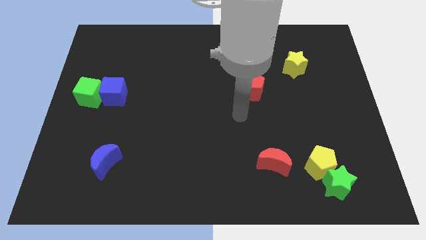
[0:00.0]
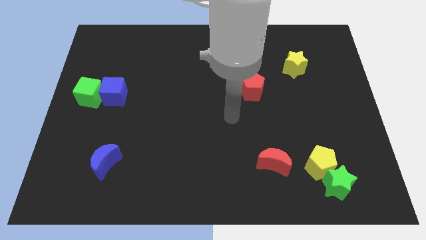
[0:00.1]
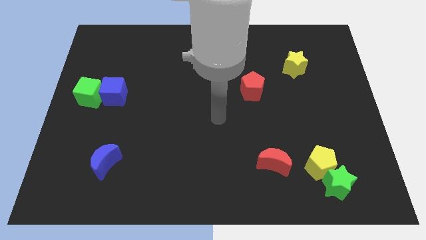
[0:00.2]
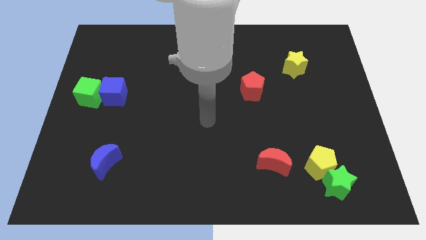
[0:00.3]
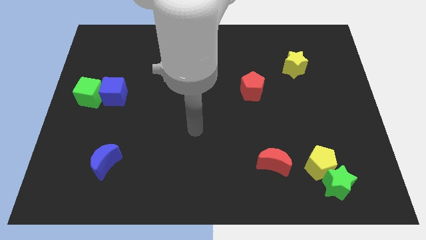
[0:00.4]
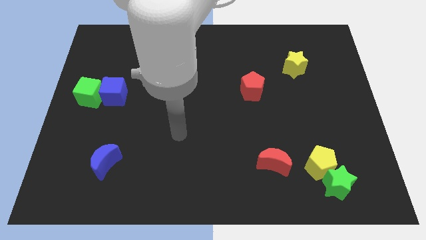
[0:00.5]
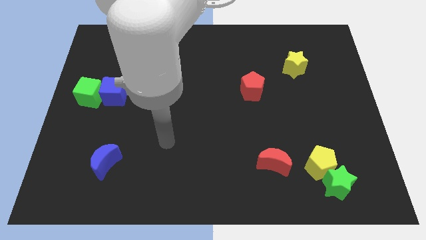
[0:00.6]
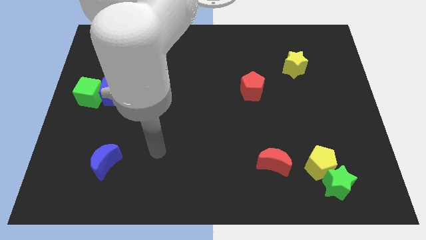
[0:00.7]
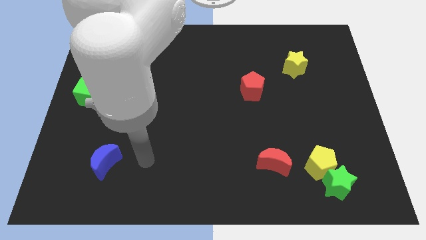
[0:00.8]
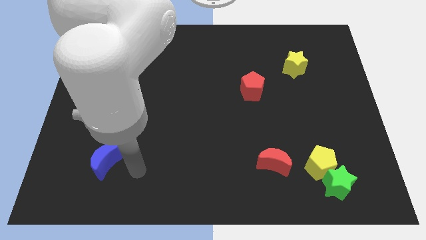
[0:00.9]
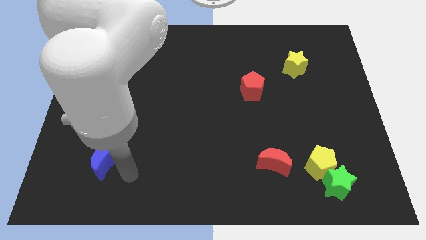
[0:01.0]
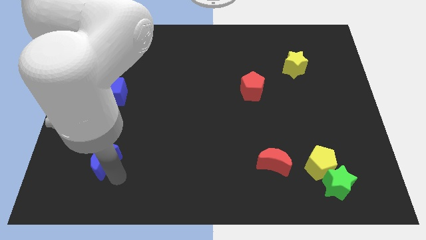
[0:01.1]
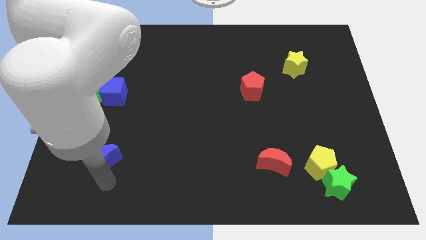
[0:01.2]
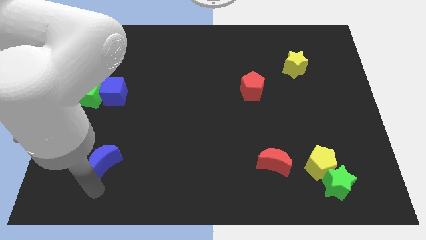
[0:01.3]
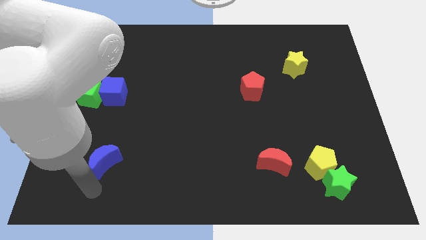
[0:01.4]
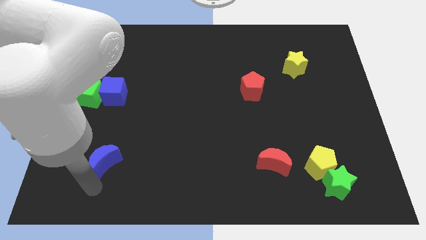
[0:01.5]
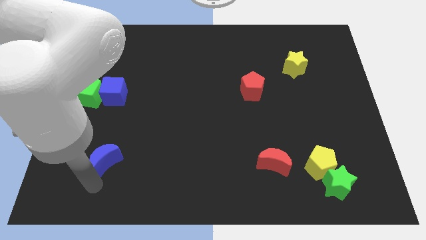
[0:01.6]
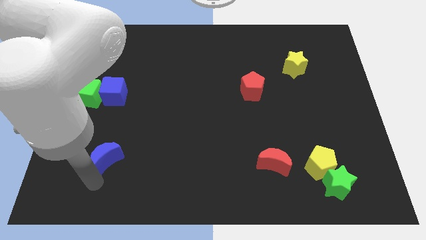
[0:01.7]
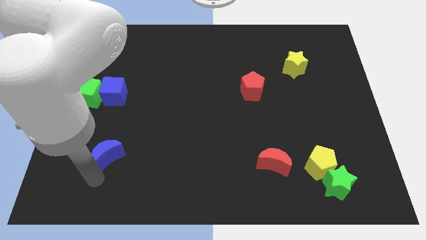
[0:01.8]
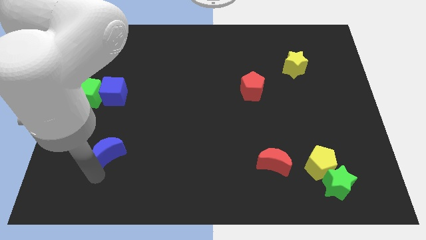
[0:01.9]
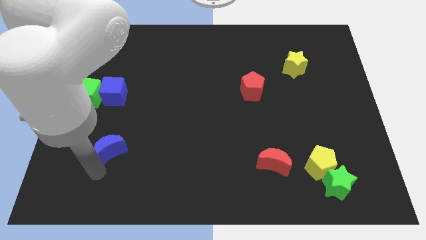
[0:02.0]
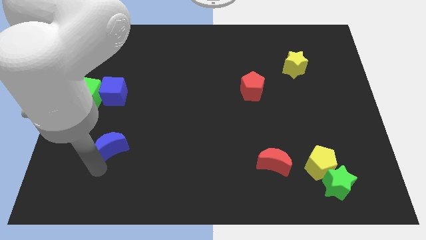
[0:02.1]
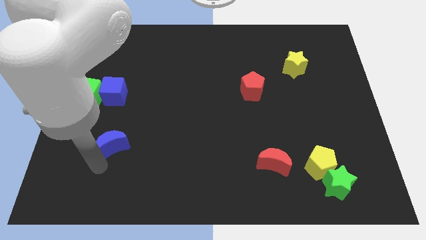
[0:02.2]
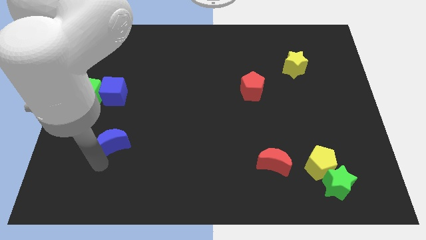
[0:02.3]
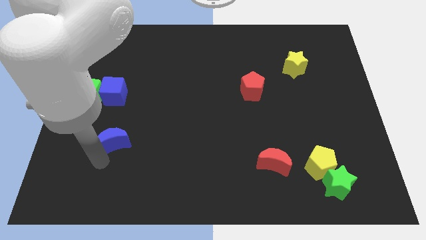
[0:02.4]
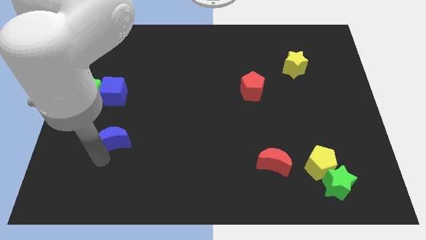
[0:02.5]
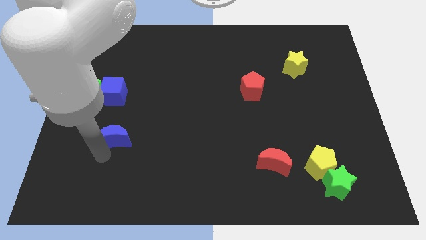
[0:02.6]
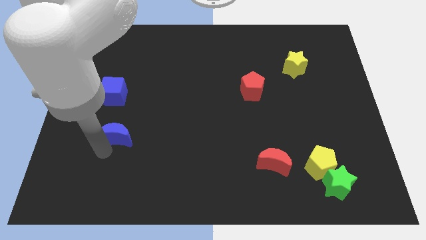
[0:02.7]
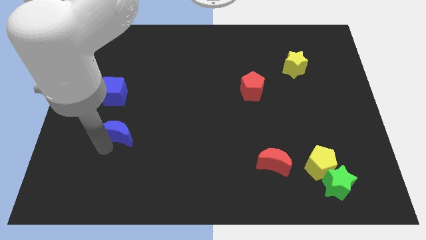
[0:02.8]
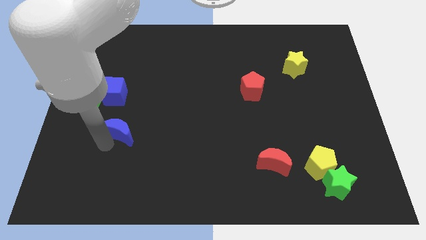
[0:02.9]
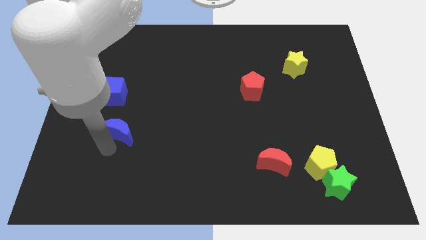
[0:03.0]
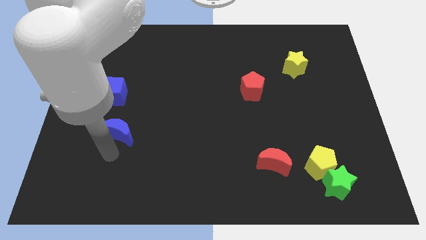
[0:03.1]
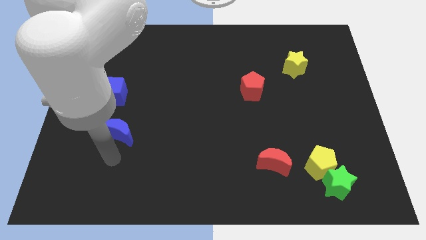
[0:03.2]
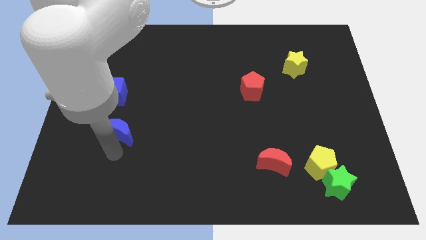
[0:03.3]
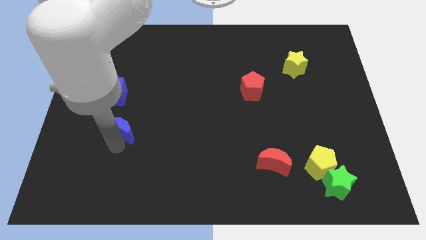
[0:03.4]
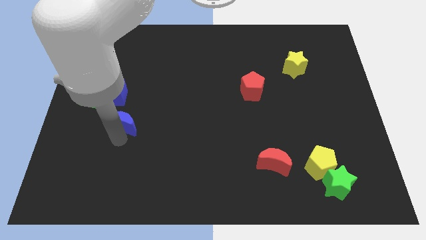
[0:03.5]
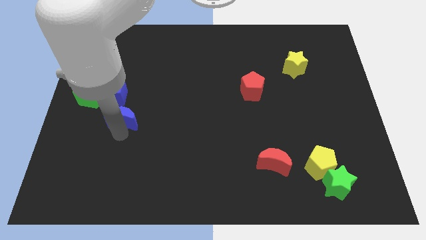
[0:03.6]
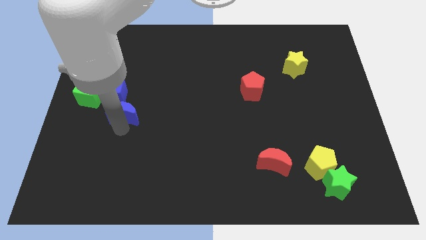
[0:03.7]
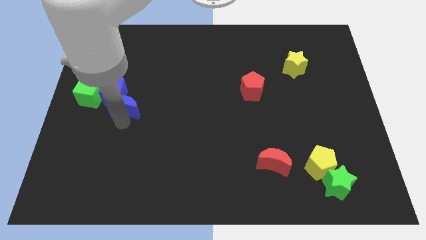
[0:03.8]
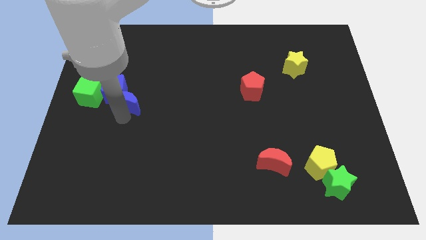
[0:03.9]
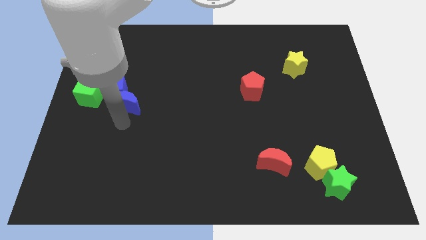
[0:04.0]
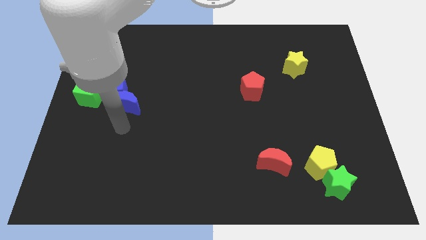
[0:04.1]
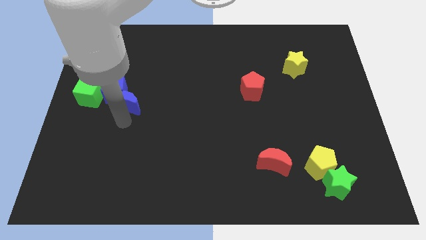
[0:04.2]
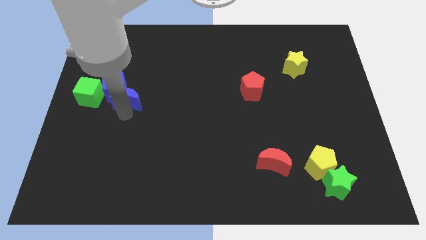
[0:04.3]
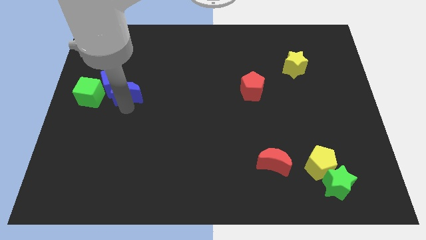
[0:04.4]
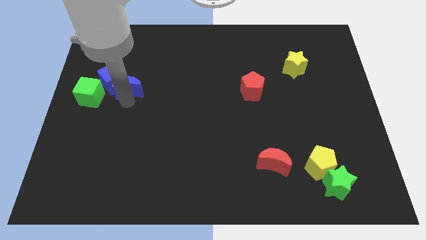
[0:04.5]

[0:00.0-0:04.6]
slide the blue moon up

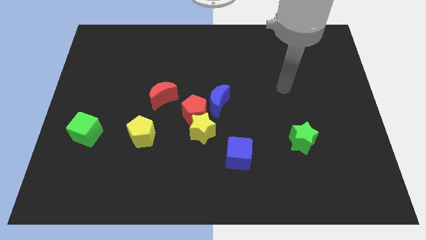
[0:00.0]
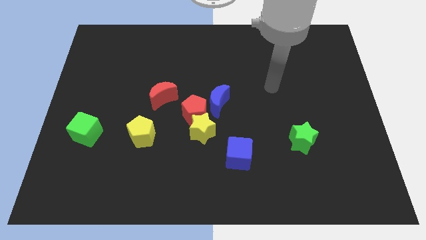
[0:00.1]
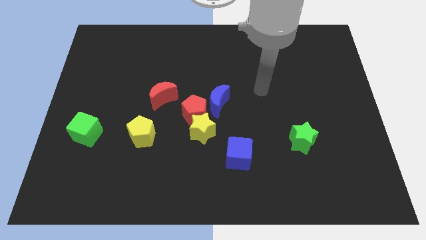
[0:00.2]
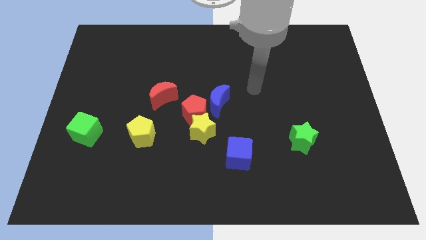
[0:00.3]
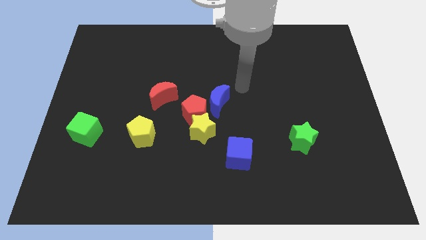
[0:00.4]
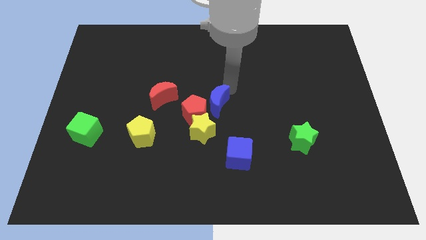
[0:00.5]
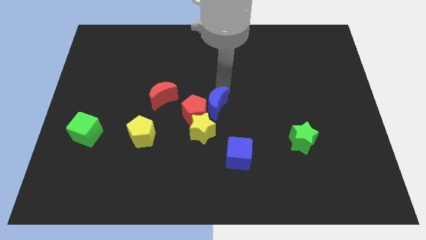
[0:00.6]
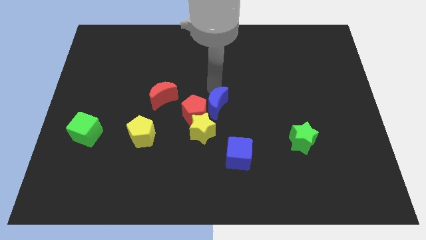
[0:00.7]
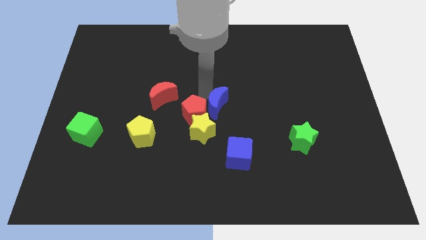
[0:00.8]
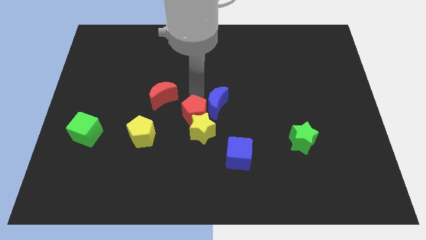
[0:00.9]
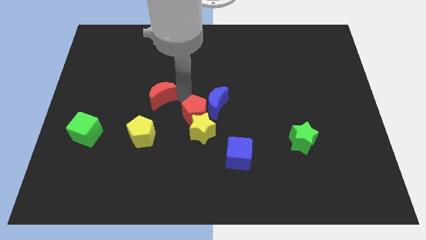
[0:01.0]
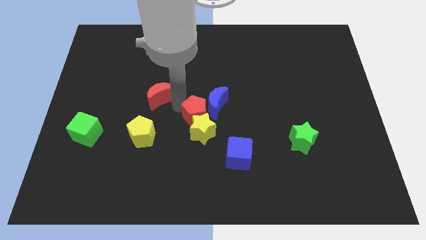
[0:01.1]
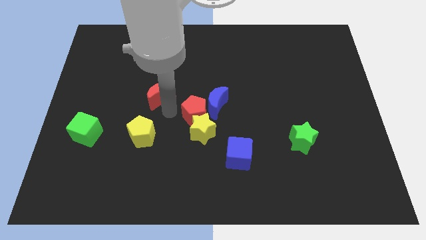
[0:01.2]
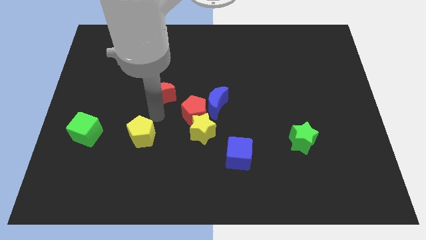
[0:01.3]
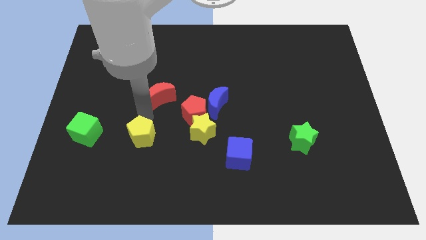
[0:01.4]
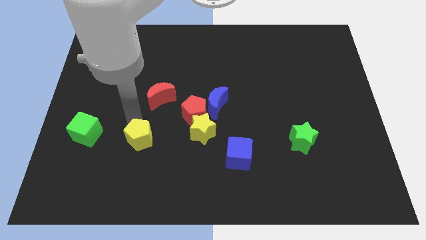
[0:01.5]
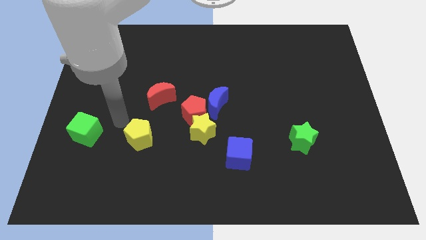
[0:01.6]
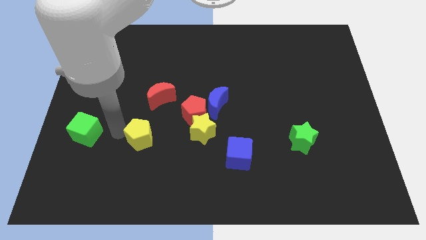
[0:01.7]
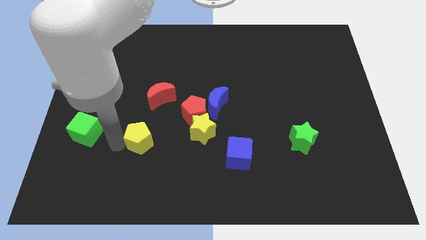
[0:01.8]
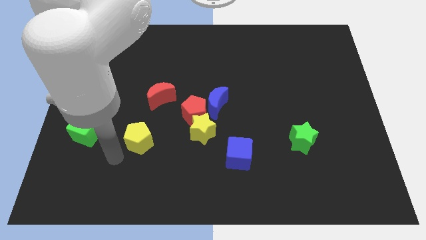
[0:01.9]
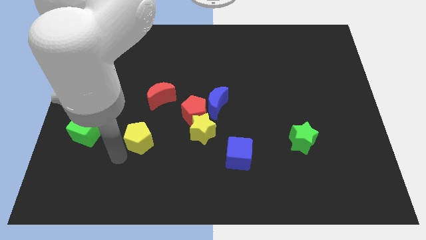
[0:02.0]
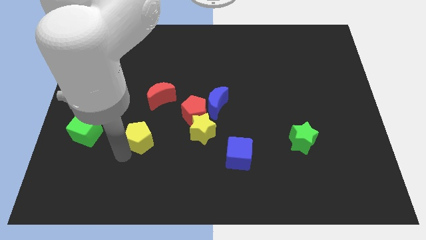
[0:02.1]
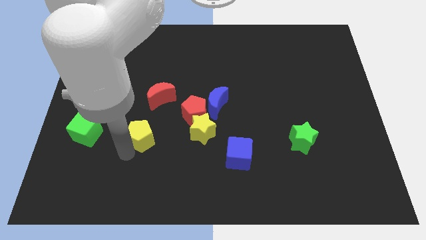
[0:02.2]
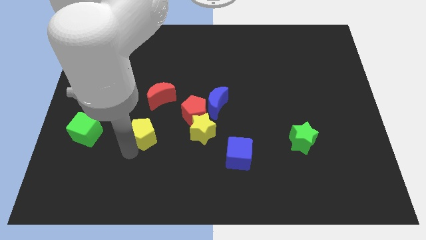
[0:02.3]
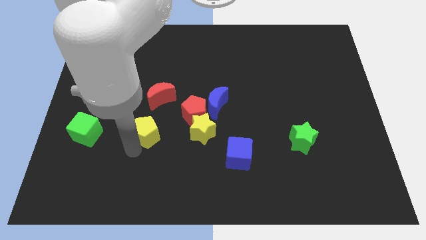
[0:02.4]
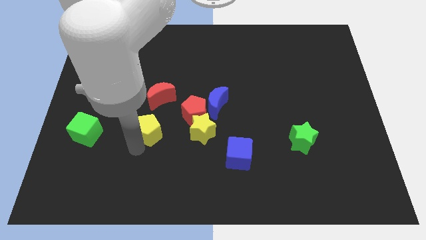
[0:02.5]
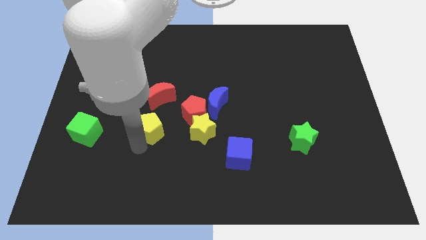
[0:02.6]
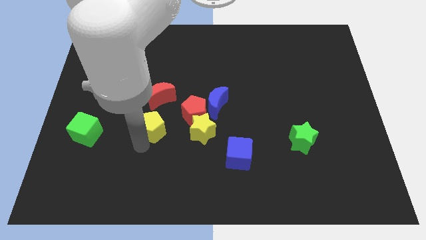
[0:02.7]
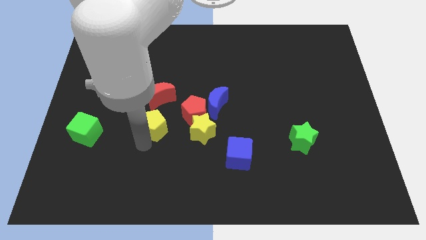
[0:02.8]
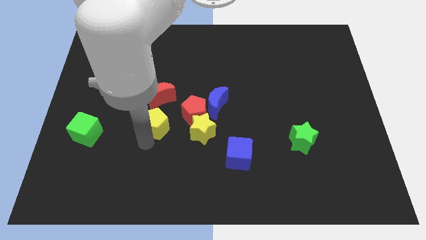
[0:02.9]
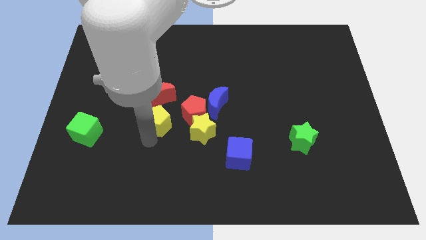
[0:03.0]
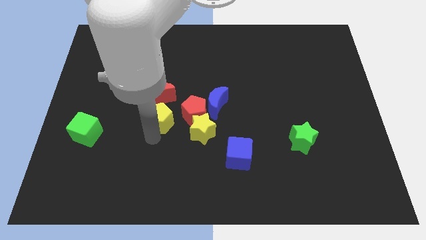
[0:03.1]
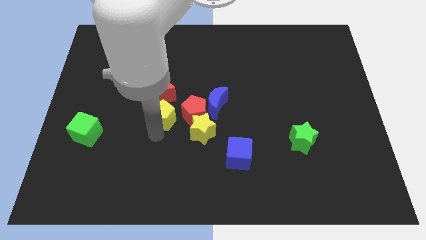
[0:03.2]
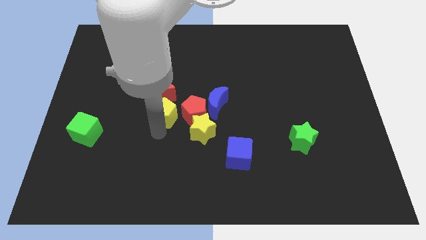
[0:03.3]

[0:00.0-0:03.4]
push the yellow pentagon up and to the right diagonally a bit
